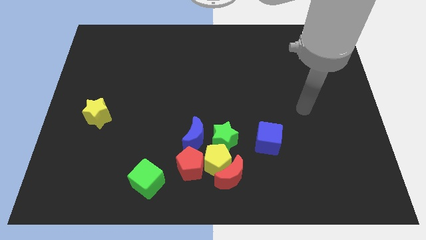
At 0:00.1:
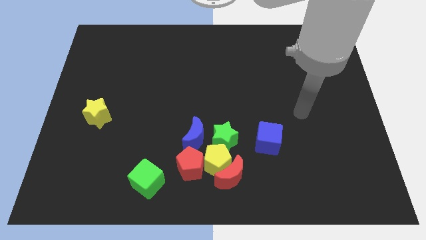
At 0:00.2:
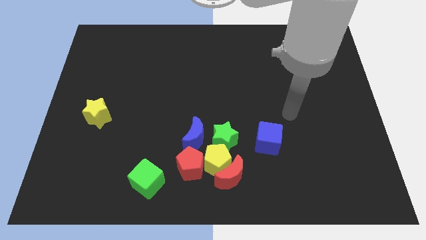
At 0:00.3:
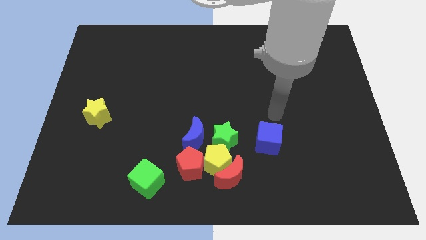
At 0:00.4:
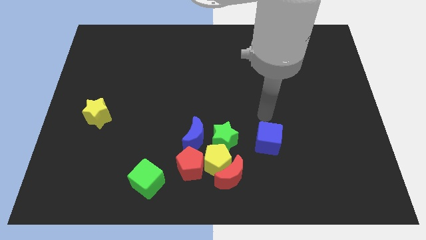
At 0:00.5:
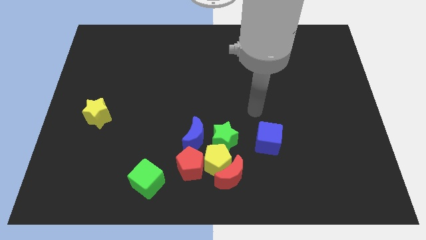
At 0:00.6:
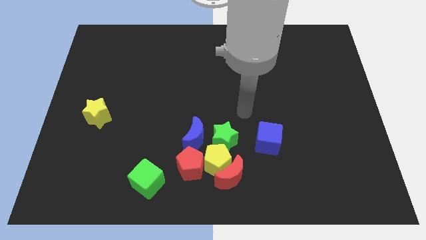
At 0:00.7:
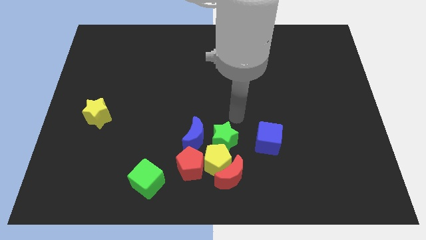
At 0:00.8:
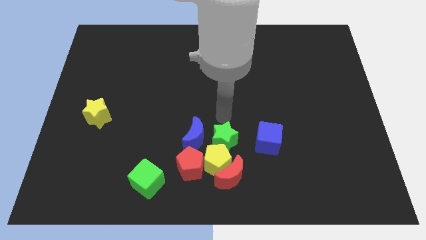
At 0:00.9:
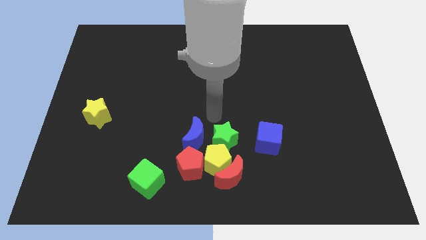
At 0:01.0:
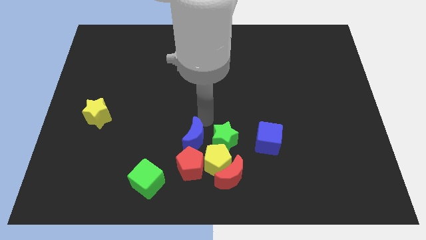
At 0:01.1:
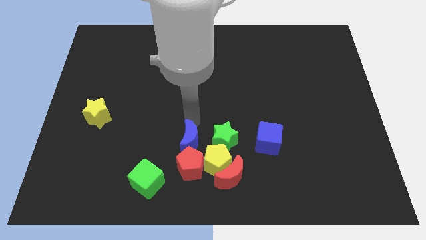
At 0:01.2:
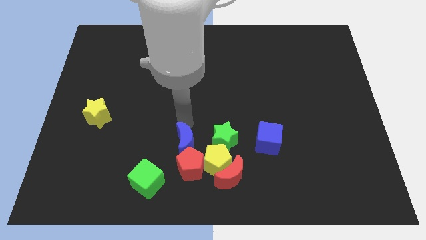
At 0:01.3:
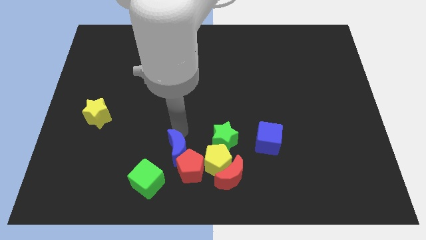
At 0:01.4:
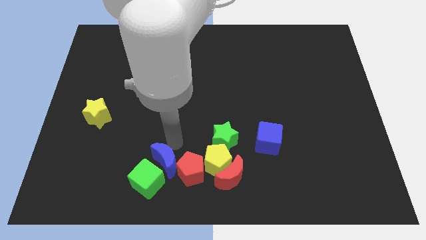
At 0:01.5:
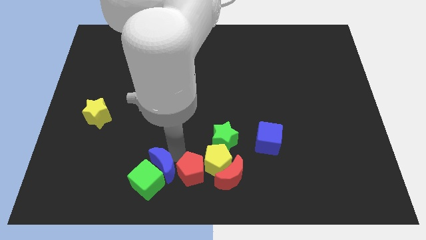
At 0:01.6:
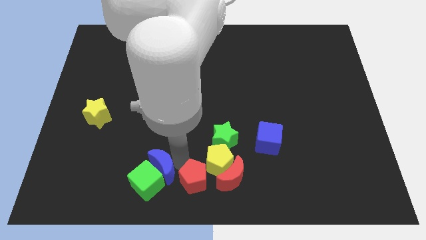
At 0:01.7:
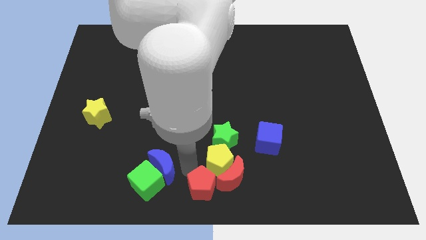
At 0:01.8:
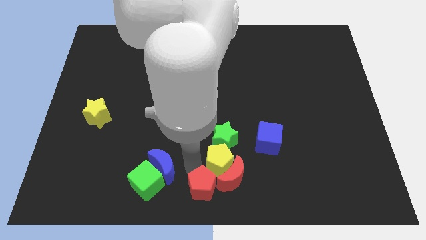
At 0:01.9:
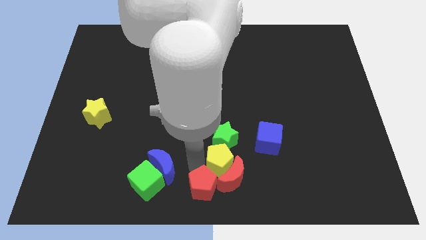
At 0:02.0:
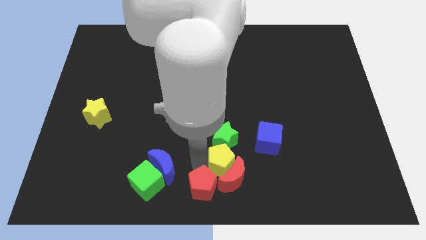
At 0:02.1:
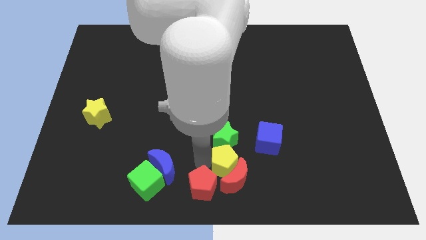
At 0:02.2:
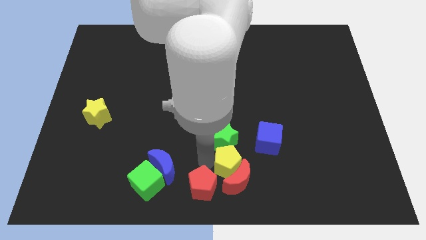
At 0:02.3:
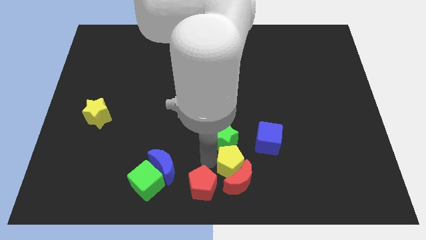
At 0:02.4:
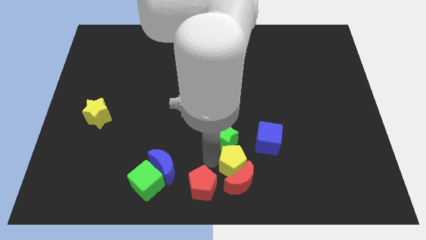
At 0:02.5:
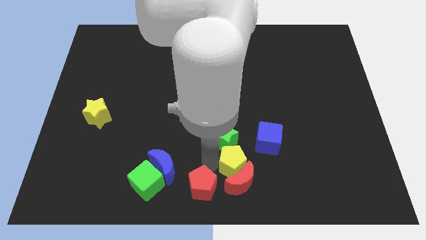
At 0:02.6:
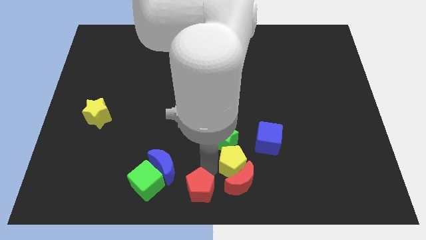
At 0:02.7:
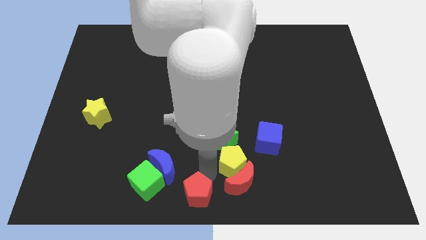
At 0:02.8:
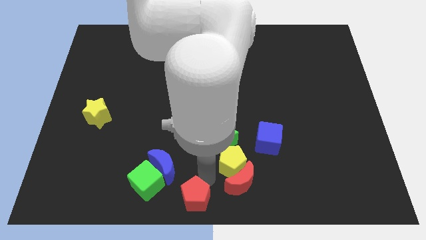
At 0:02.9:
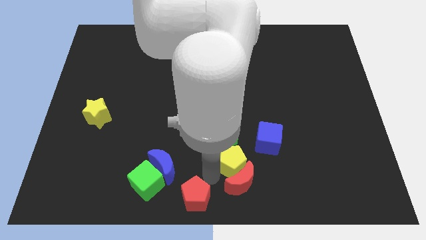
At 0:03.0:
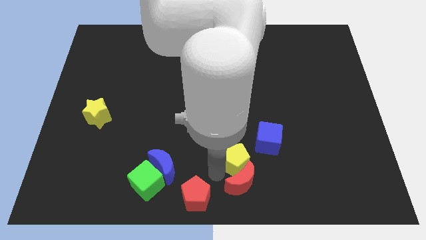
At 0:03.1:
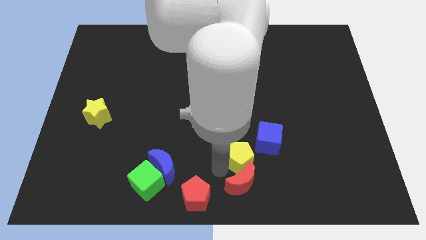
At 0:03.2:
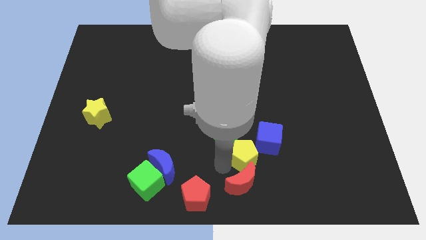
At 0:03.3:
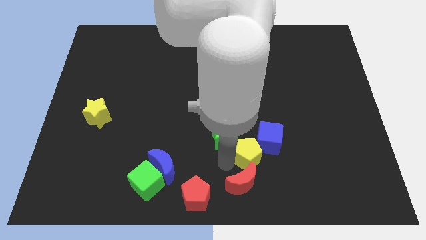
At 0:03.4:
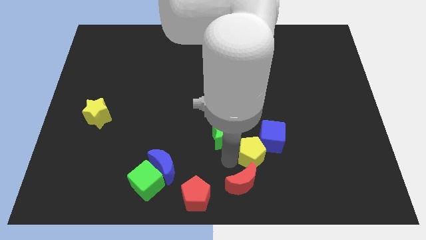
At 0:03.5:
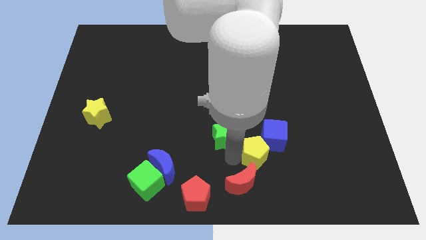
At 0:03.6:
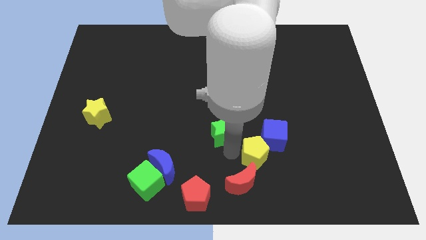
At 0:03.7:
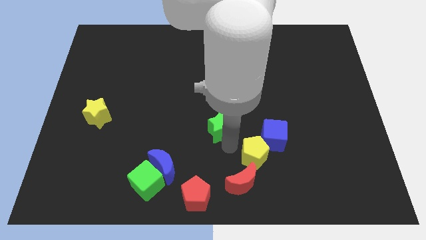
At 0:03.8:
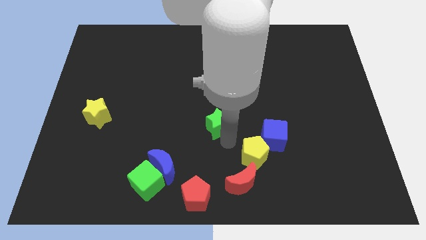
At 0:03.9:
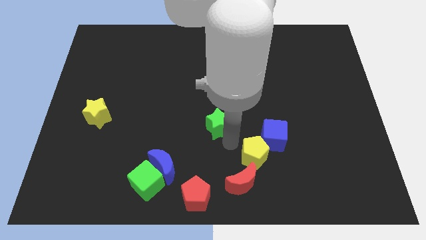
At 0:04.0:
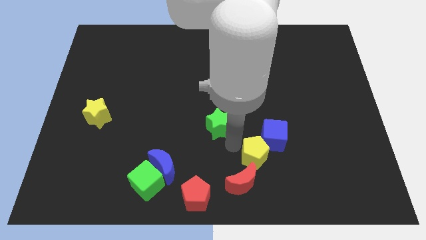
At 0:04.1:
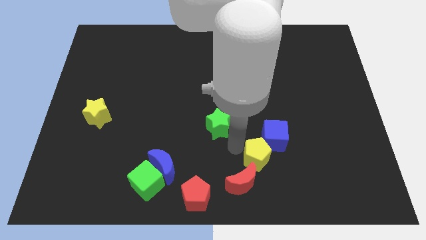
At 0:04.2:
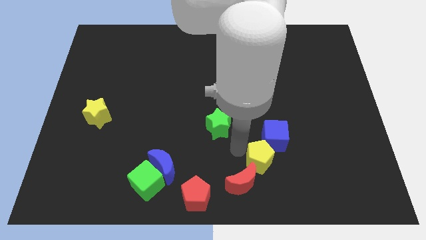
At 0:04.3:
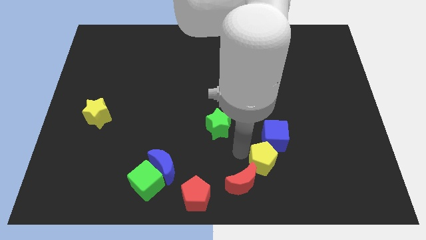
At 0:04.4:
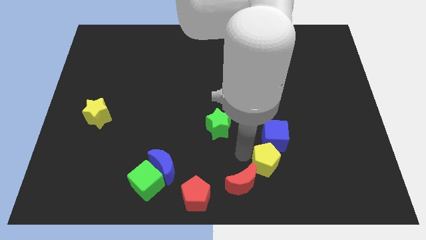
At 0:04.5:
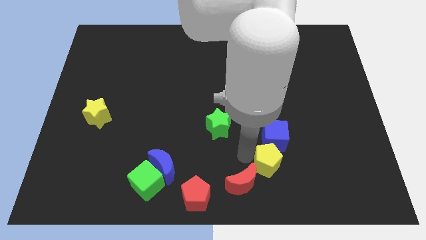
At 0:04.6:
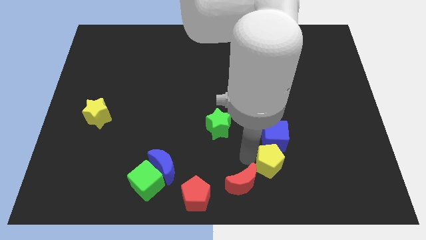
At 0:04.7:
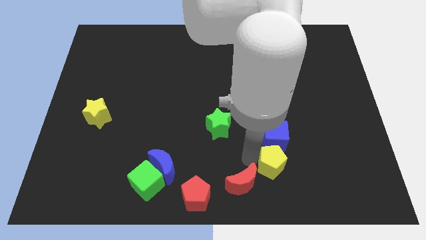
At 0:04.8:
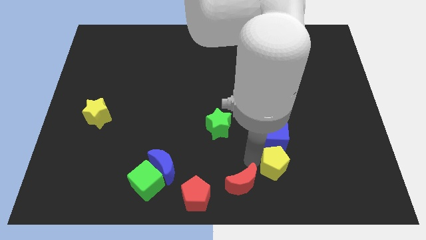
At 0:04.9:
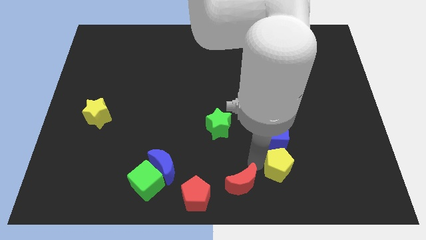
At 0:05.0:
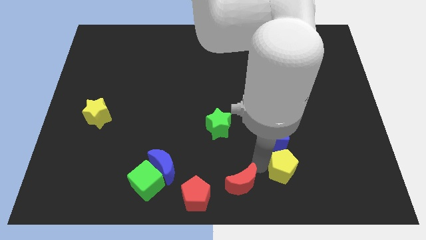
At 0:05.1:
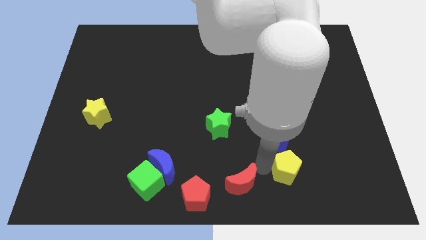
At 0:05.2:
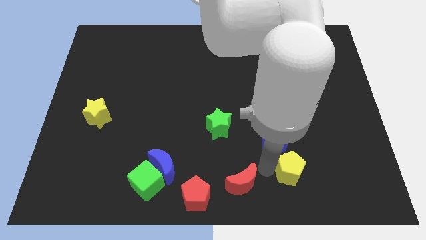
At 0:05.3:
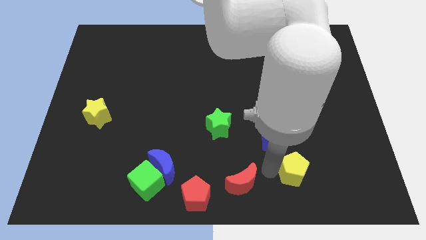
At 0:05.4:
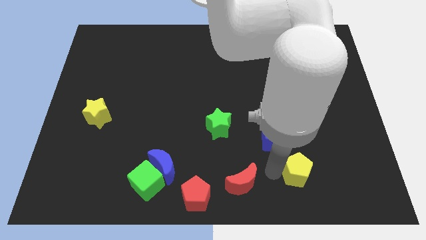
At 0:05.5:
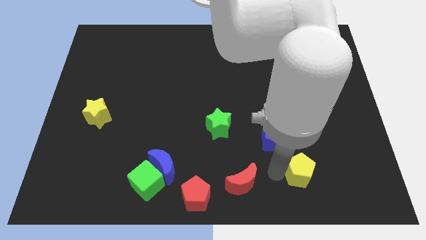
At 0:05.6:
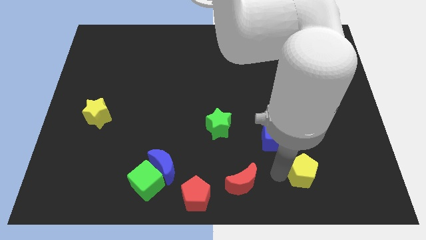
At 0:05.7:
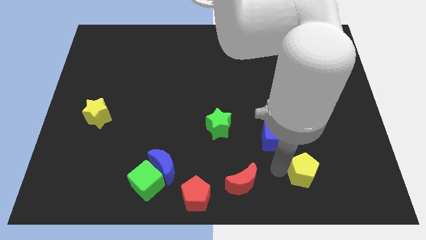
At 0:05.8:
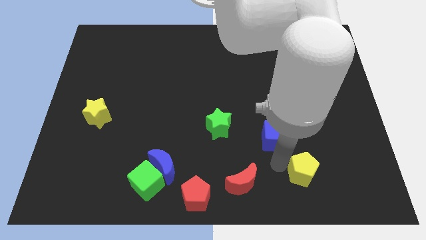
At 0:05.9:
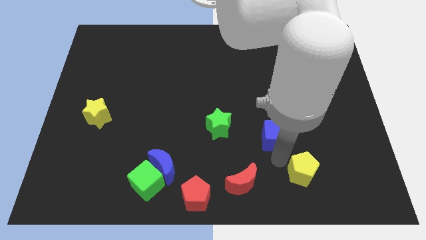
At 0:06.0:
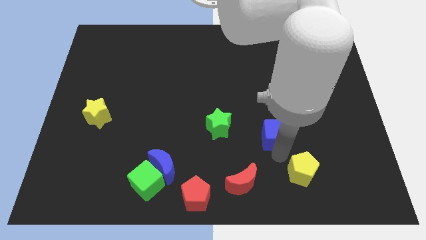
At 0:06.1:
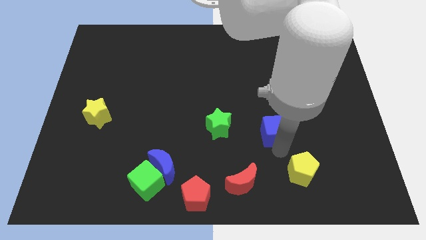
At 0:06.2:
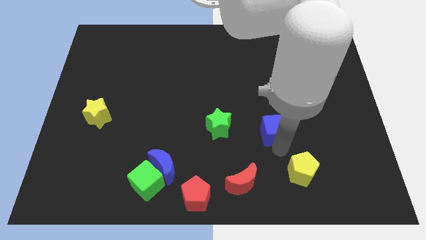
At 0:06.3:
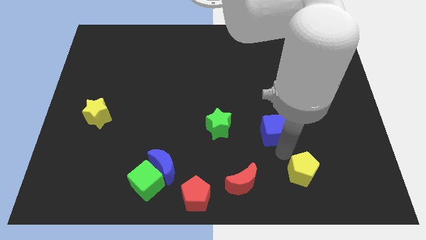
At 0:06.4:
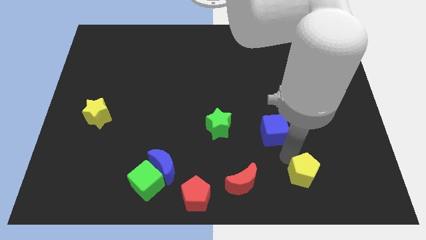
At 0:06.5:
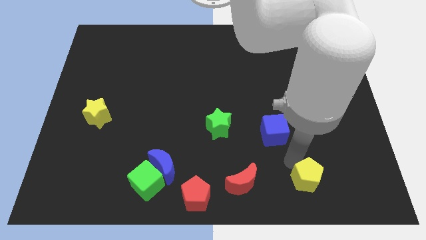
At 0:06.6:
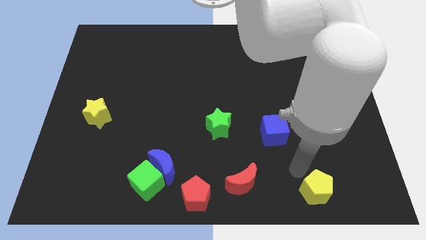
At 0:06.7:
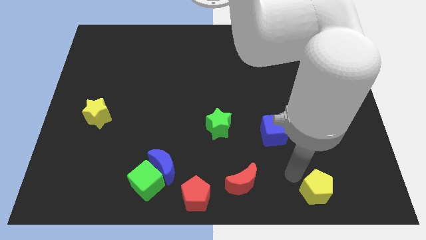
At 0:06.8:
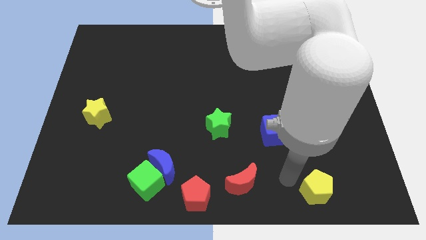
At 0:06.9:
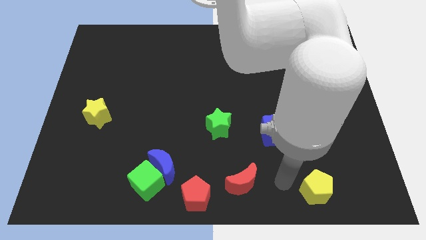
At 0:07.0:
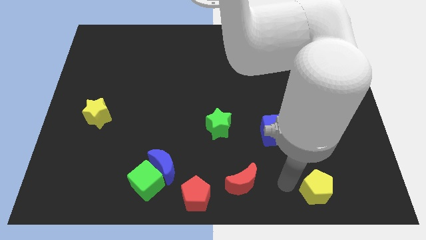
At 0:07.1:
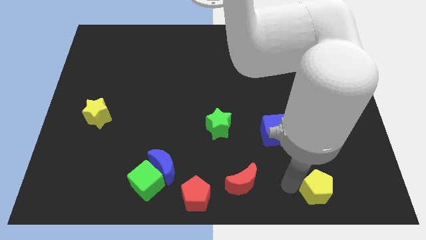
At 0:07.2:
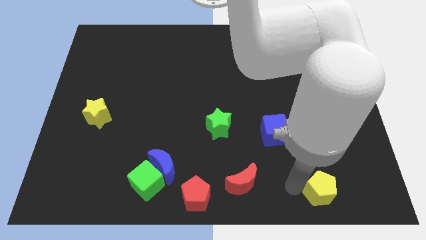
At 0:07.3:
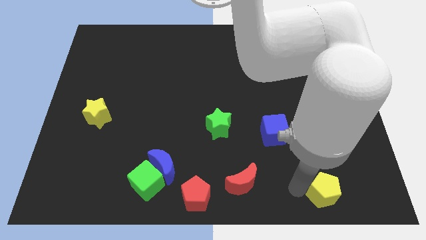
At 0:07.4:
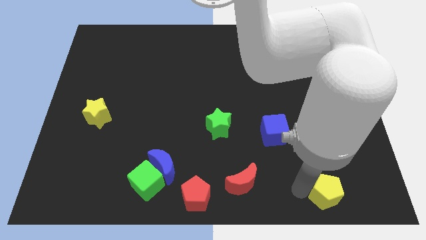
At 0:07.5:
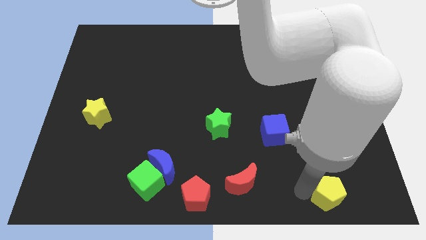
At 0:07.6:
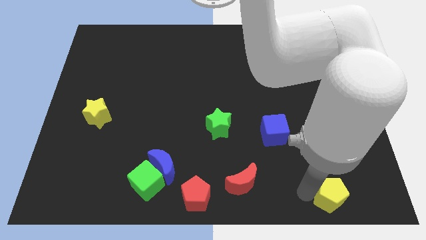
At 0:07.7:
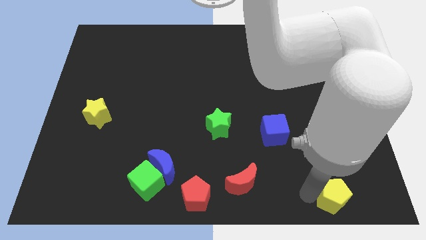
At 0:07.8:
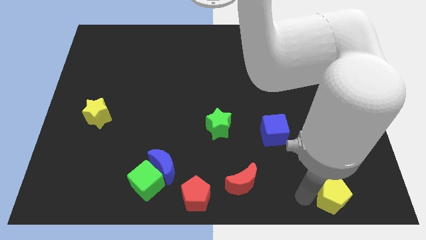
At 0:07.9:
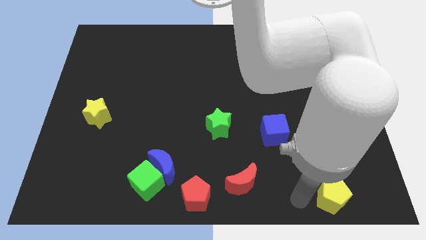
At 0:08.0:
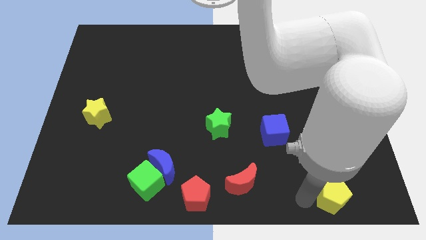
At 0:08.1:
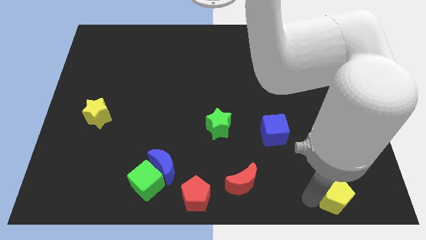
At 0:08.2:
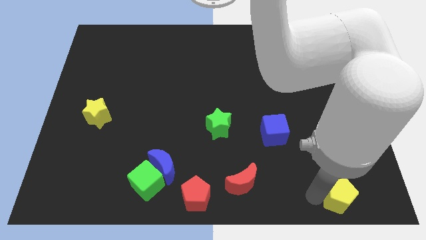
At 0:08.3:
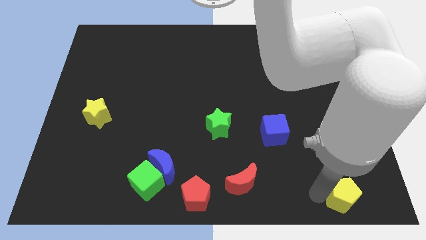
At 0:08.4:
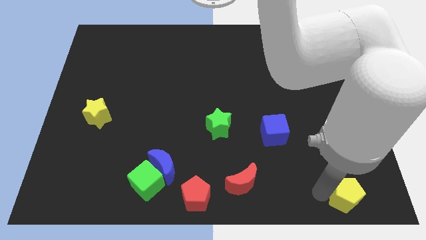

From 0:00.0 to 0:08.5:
move the yellow pentagon to the bottom right corner
